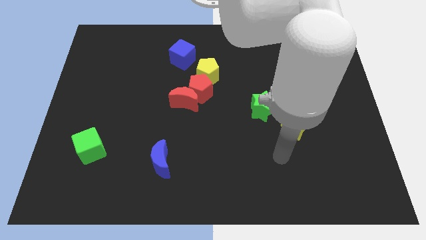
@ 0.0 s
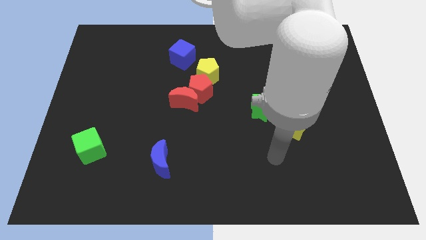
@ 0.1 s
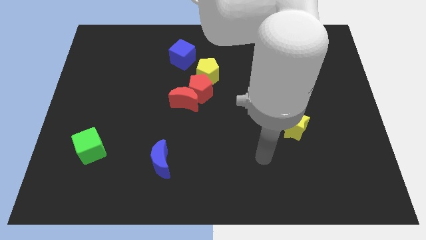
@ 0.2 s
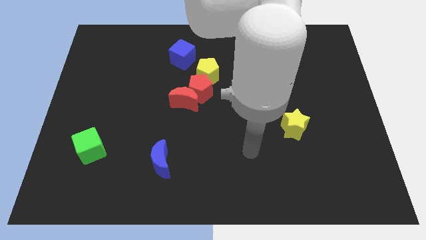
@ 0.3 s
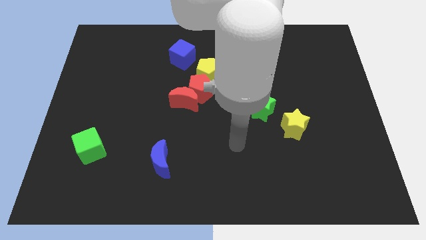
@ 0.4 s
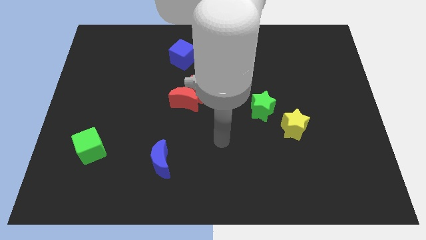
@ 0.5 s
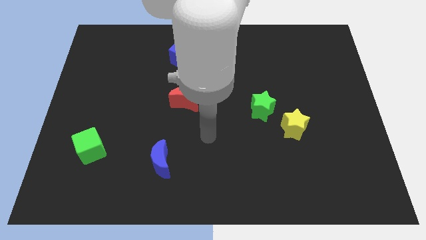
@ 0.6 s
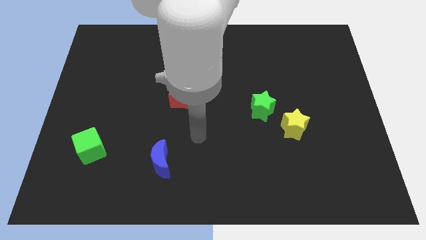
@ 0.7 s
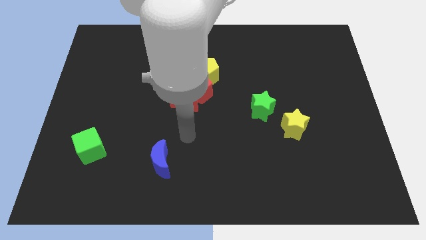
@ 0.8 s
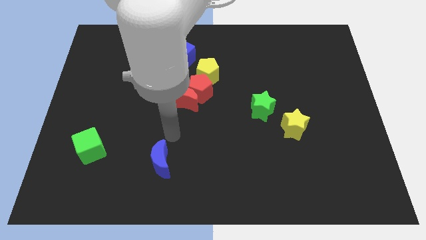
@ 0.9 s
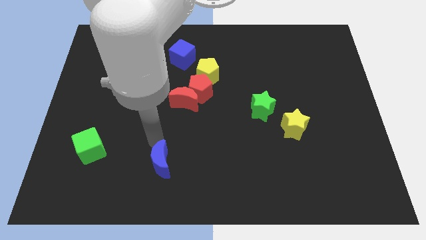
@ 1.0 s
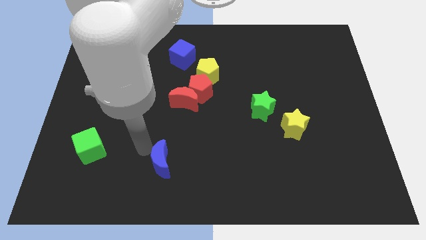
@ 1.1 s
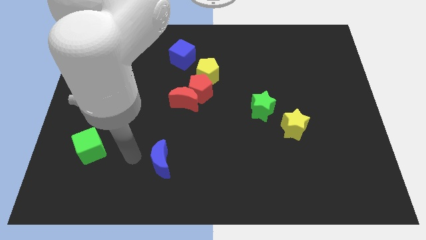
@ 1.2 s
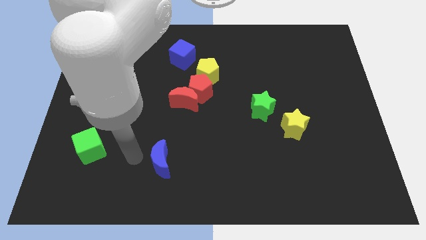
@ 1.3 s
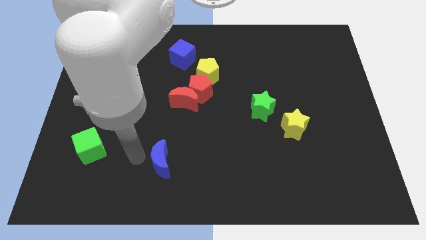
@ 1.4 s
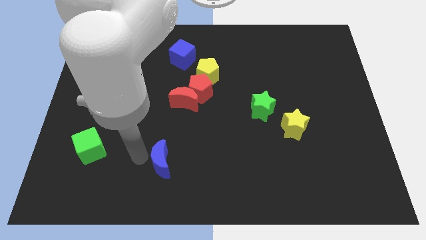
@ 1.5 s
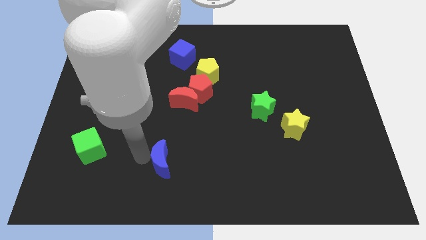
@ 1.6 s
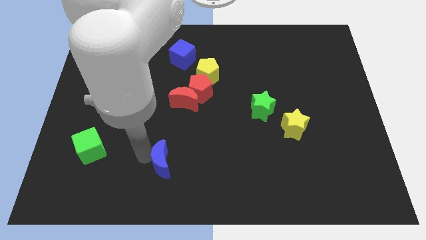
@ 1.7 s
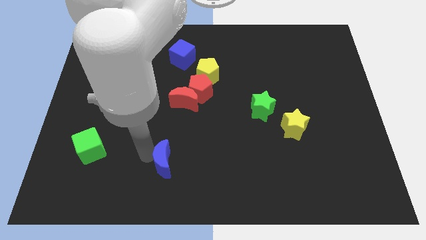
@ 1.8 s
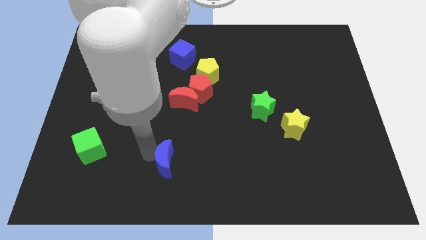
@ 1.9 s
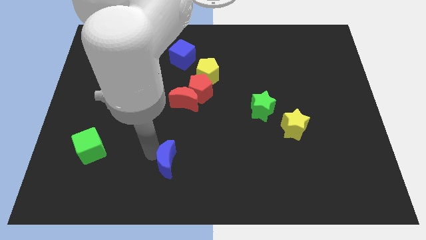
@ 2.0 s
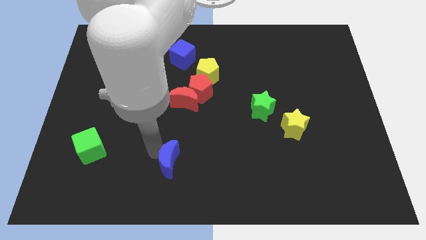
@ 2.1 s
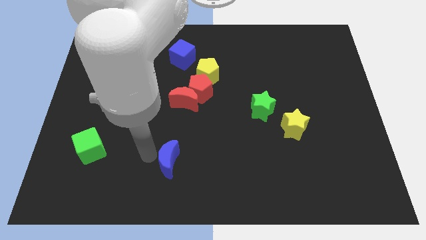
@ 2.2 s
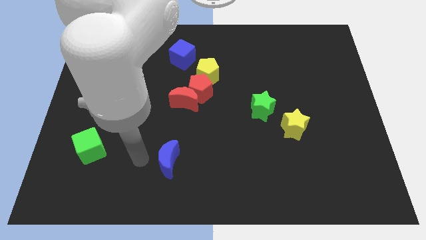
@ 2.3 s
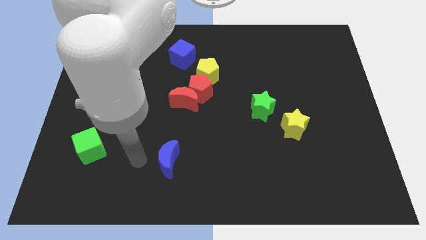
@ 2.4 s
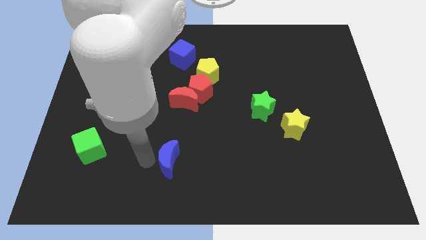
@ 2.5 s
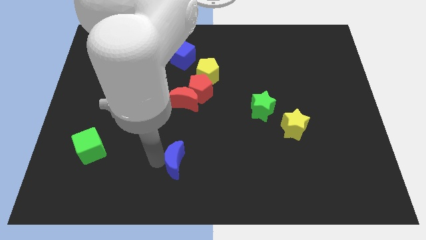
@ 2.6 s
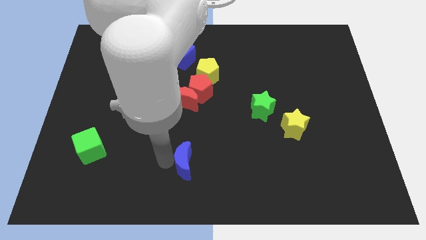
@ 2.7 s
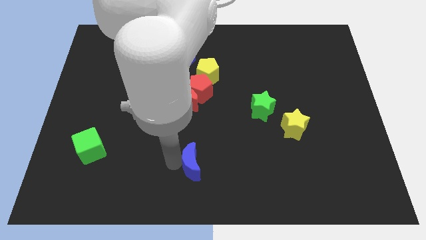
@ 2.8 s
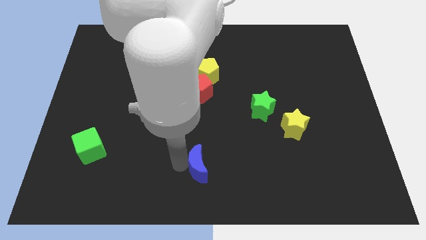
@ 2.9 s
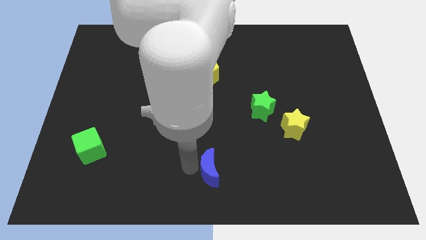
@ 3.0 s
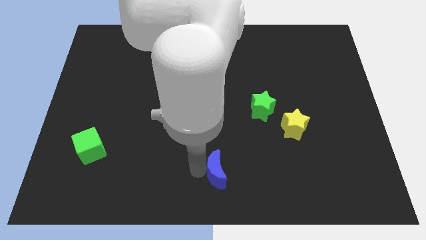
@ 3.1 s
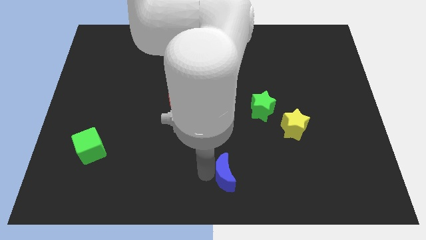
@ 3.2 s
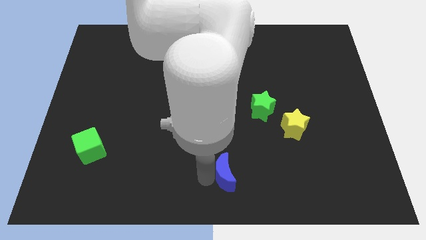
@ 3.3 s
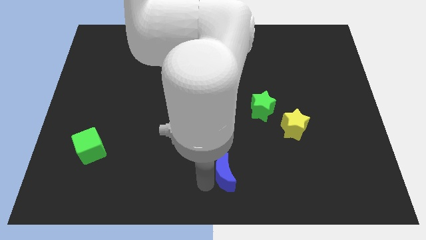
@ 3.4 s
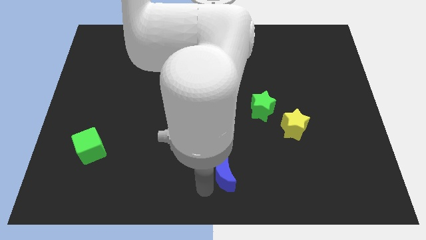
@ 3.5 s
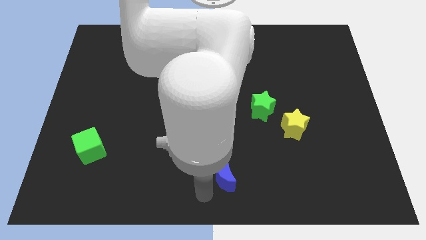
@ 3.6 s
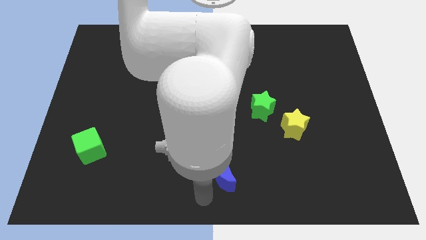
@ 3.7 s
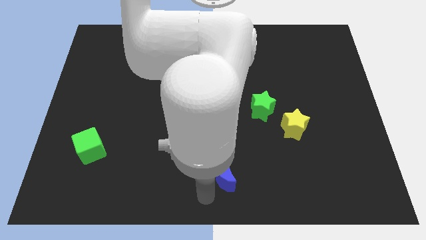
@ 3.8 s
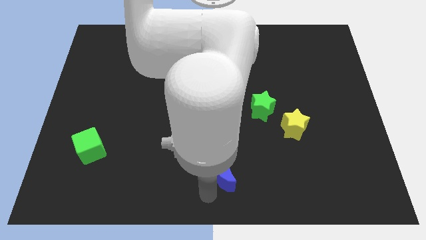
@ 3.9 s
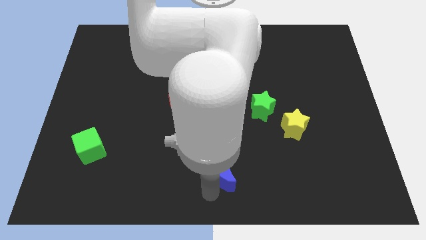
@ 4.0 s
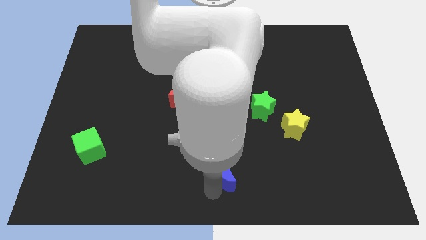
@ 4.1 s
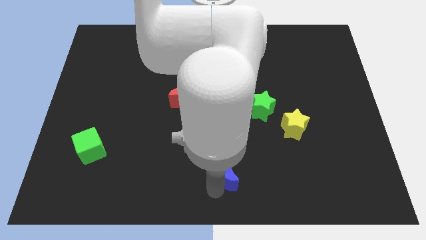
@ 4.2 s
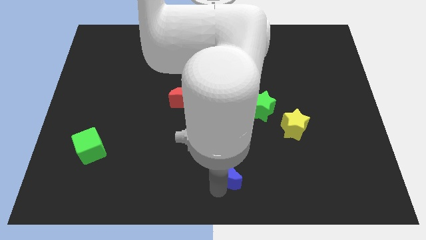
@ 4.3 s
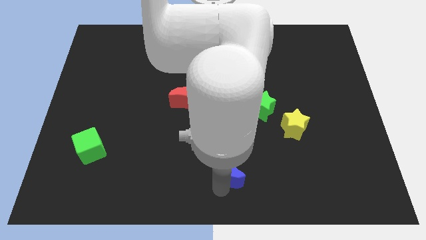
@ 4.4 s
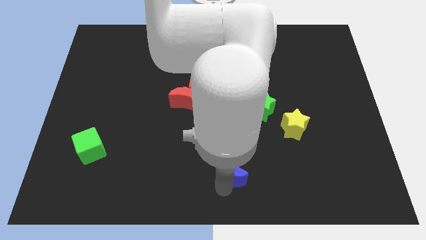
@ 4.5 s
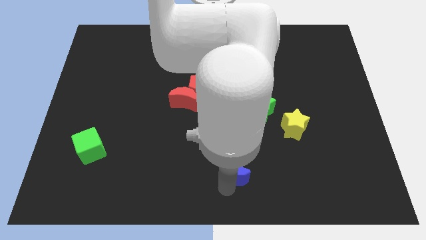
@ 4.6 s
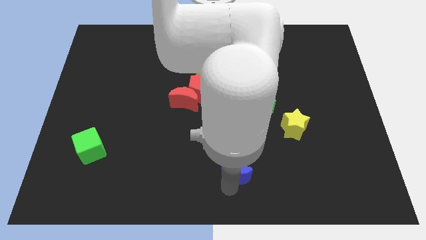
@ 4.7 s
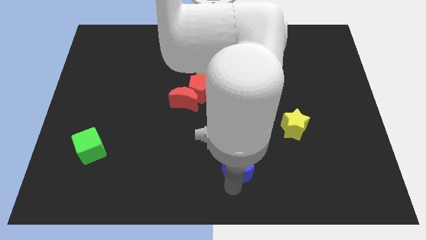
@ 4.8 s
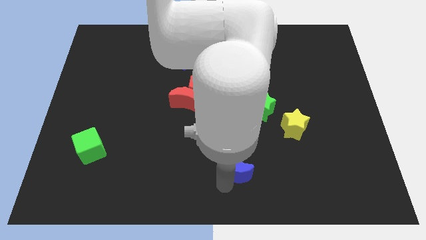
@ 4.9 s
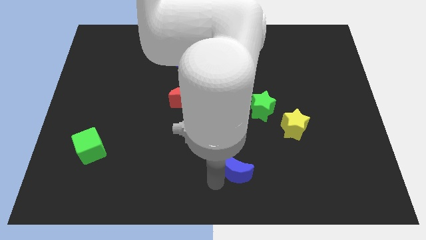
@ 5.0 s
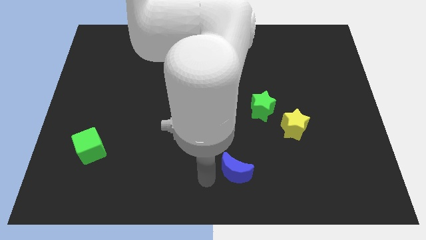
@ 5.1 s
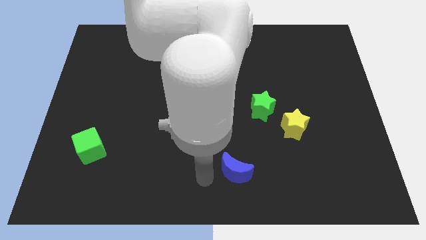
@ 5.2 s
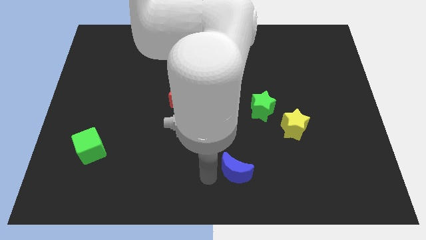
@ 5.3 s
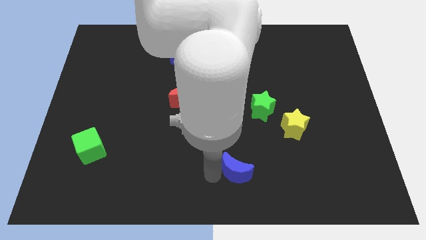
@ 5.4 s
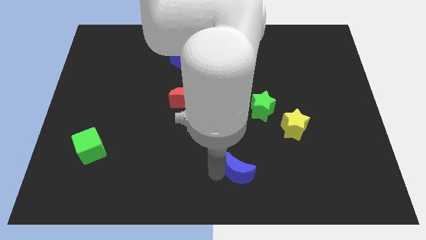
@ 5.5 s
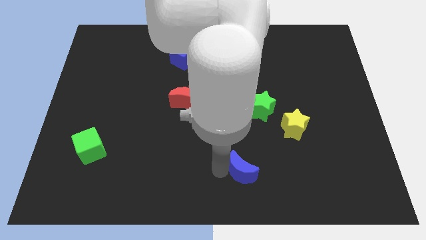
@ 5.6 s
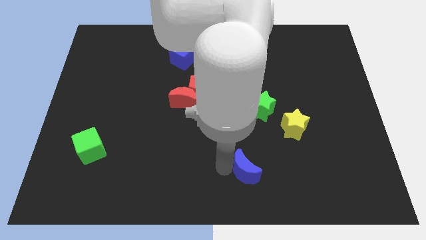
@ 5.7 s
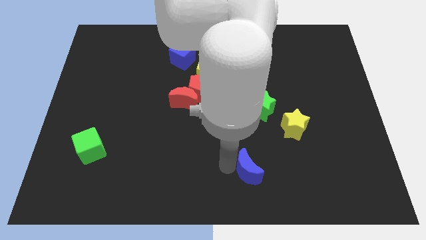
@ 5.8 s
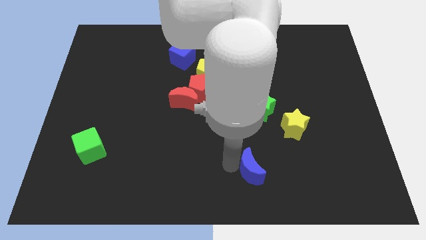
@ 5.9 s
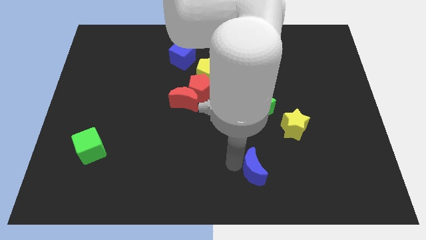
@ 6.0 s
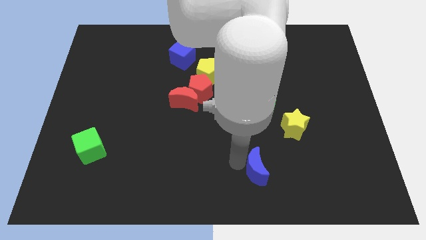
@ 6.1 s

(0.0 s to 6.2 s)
slide the blue moon right

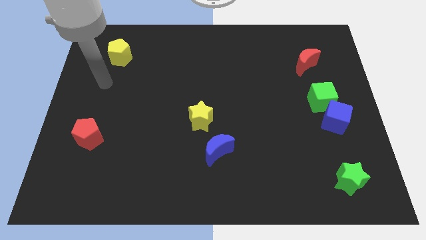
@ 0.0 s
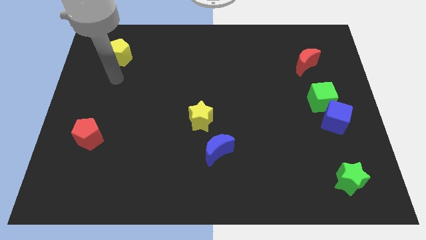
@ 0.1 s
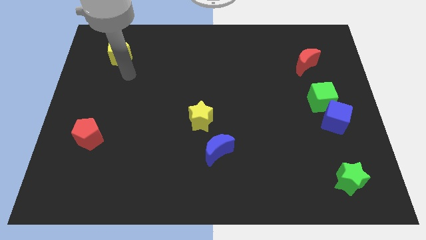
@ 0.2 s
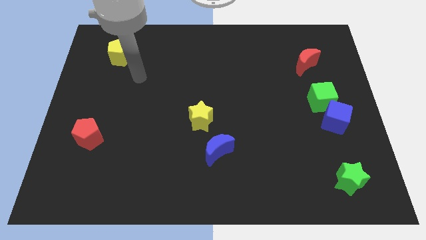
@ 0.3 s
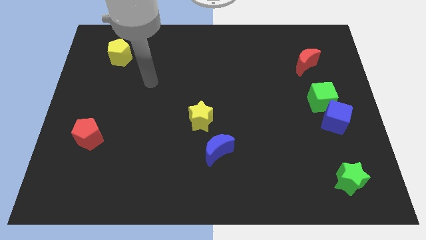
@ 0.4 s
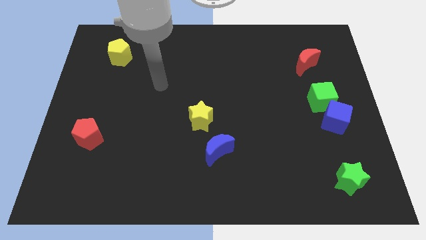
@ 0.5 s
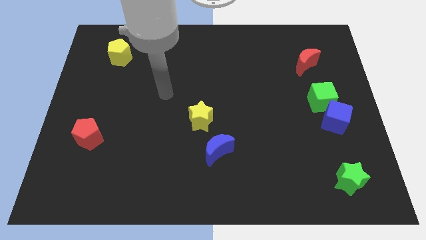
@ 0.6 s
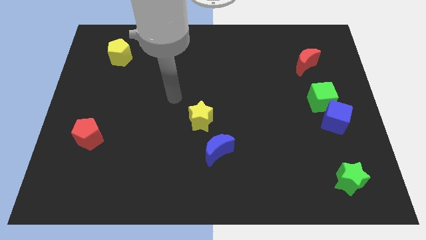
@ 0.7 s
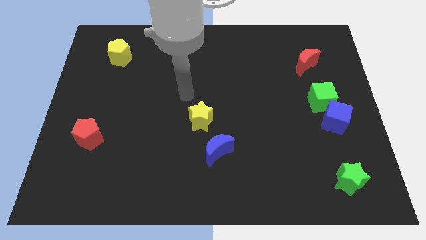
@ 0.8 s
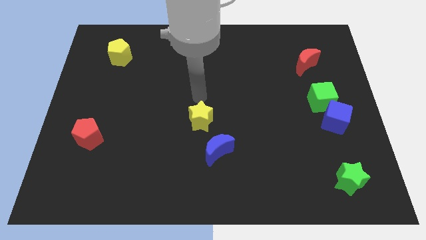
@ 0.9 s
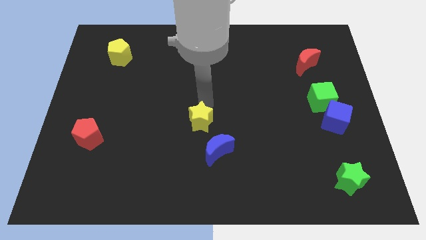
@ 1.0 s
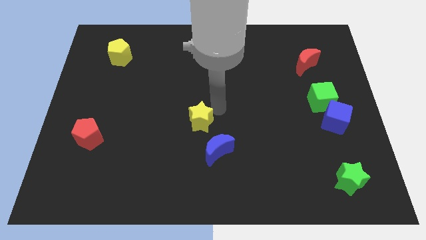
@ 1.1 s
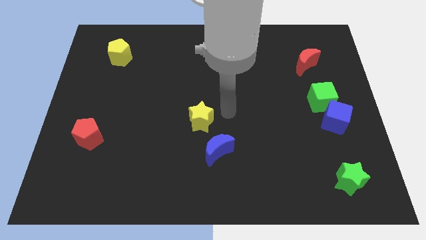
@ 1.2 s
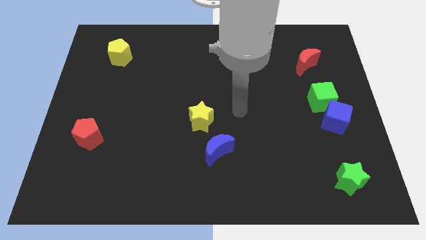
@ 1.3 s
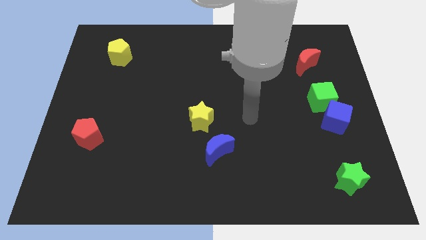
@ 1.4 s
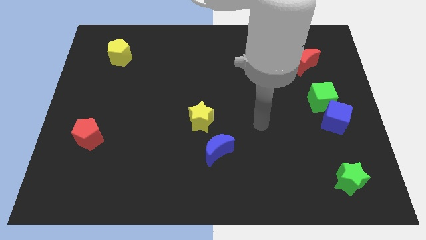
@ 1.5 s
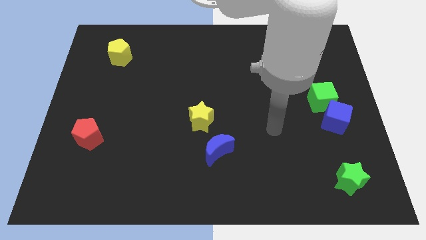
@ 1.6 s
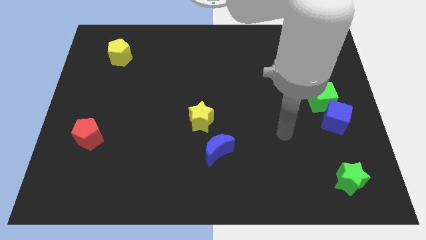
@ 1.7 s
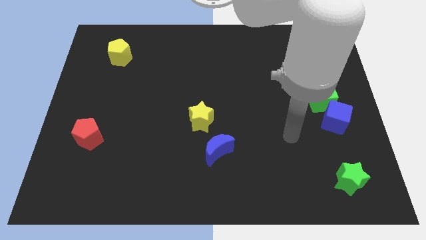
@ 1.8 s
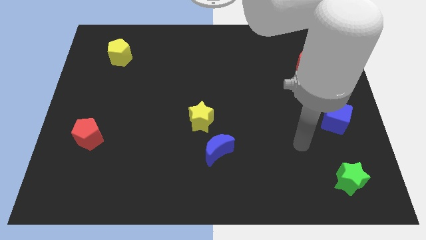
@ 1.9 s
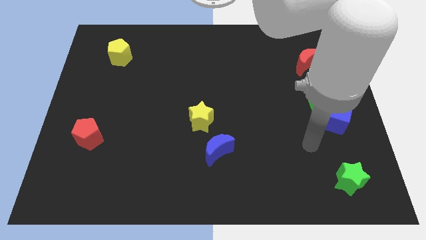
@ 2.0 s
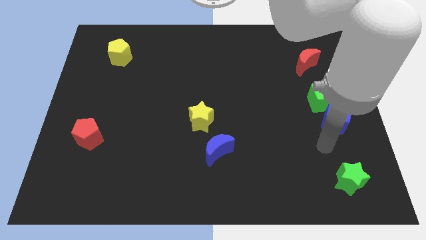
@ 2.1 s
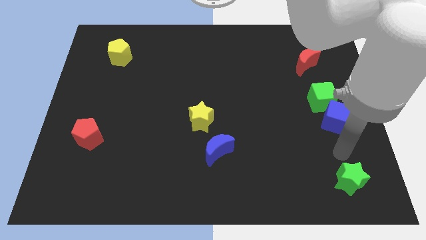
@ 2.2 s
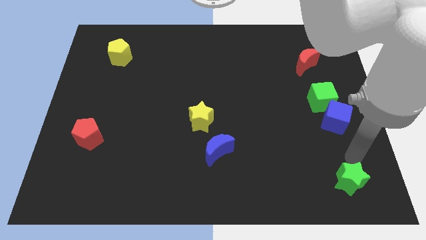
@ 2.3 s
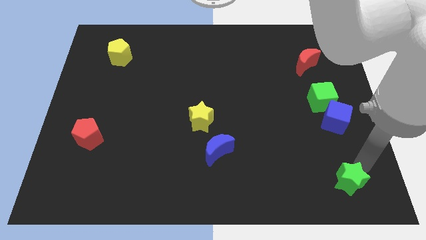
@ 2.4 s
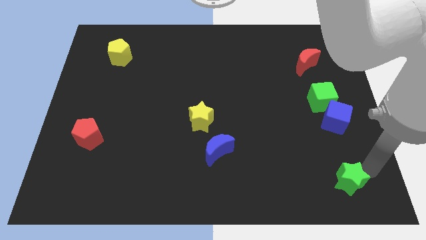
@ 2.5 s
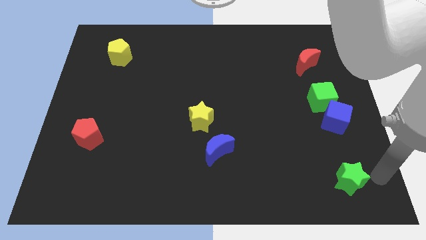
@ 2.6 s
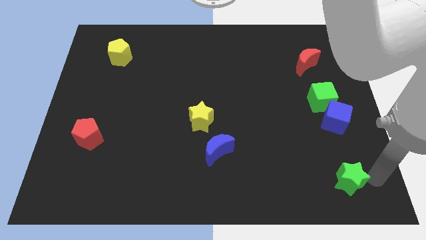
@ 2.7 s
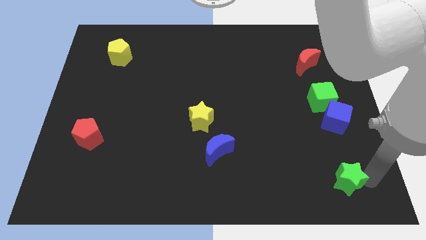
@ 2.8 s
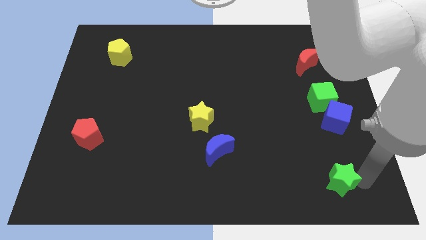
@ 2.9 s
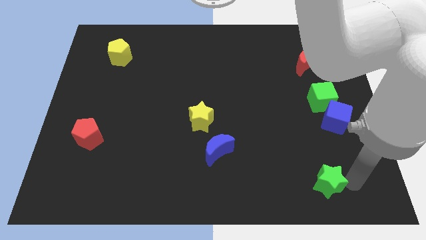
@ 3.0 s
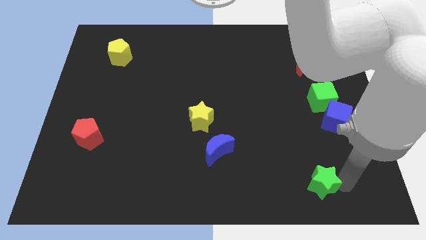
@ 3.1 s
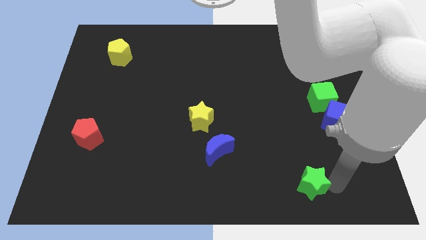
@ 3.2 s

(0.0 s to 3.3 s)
push the green star left a little bit
